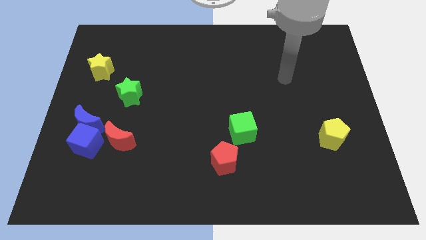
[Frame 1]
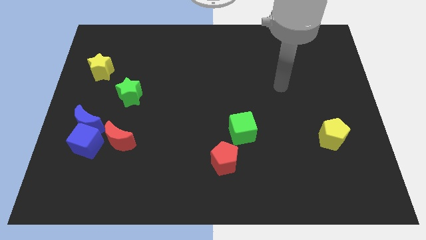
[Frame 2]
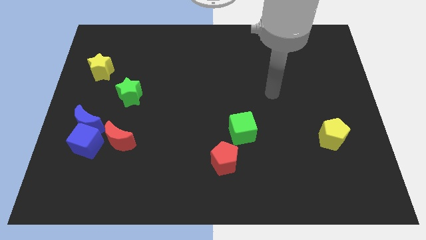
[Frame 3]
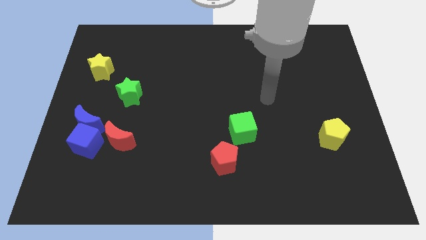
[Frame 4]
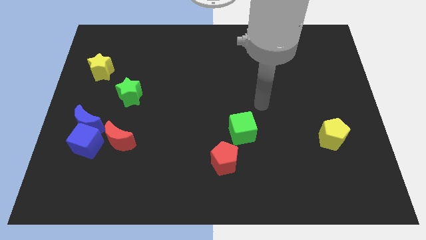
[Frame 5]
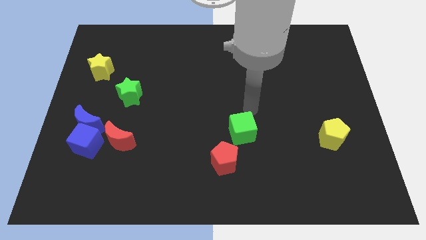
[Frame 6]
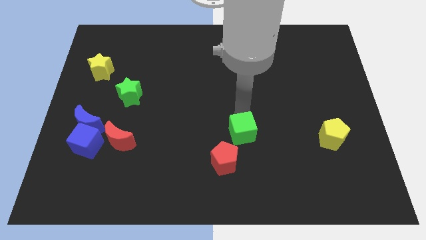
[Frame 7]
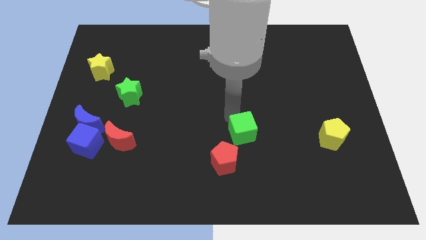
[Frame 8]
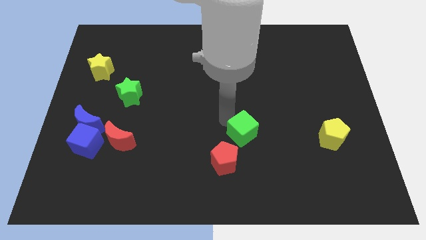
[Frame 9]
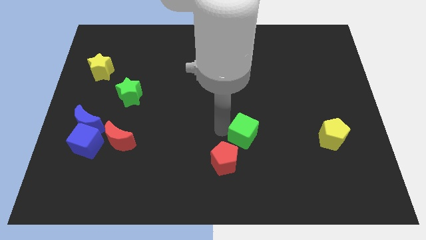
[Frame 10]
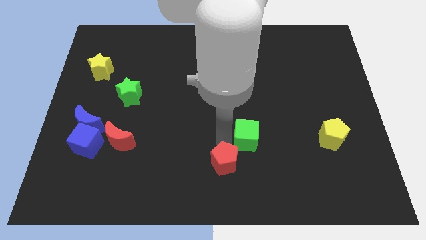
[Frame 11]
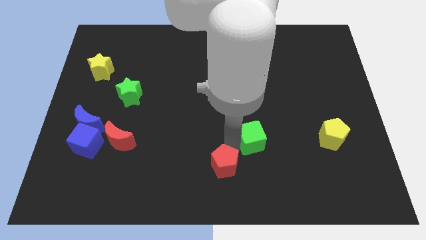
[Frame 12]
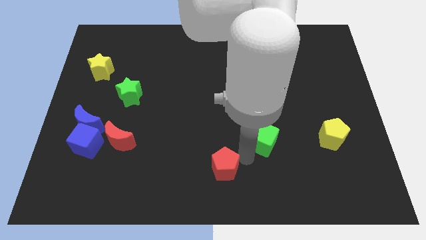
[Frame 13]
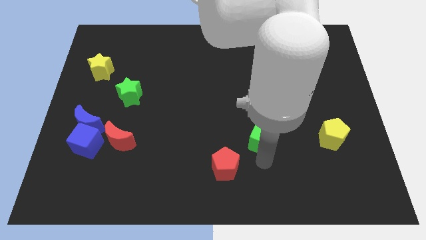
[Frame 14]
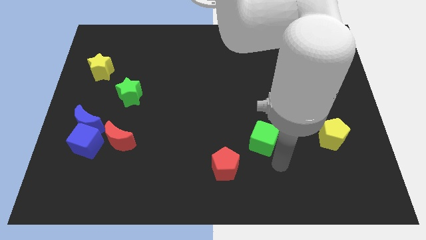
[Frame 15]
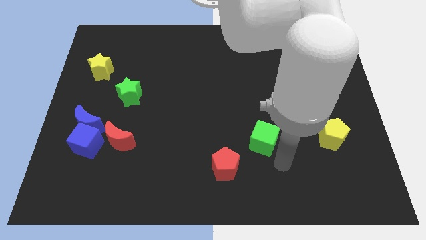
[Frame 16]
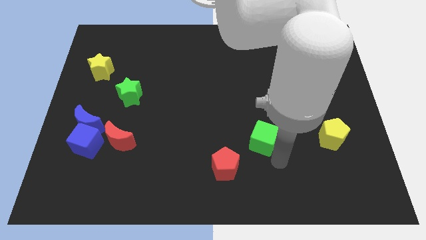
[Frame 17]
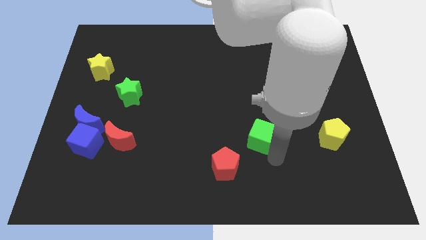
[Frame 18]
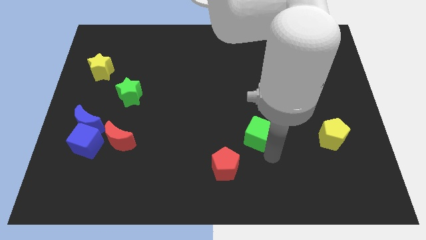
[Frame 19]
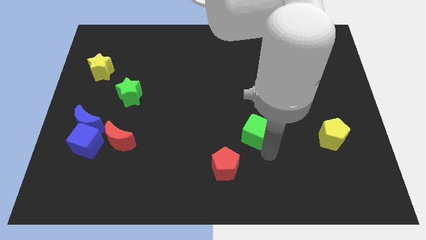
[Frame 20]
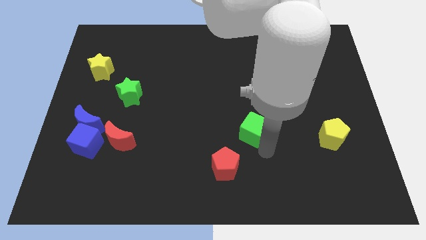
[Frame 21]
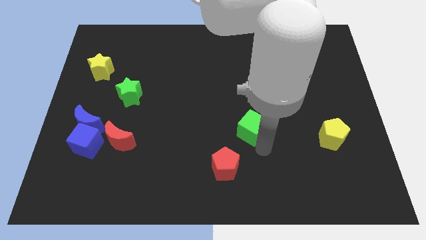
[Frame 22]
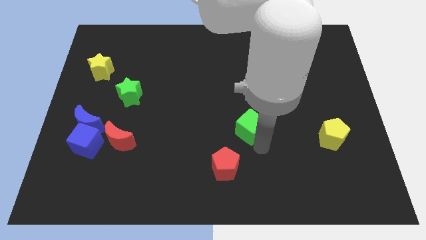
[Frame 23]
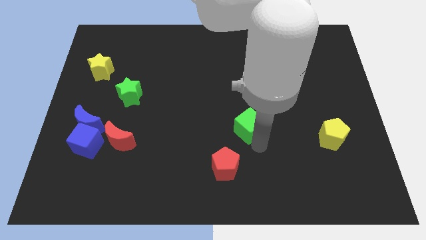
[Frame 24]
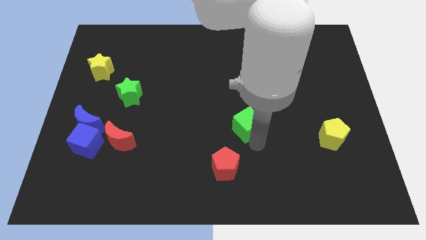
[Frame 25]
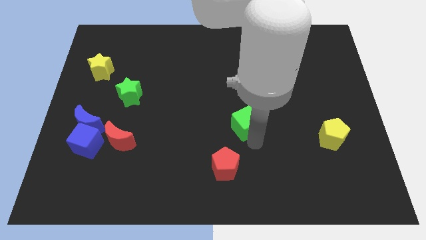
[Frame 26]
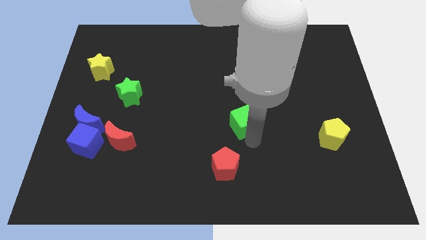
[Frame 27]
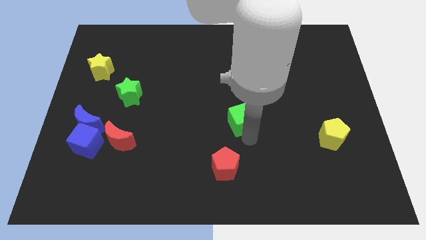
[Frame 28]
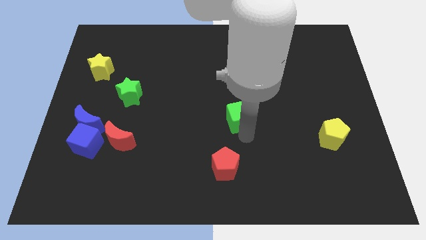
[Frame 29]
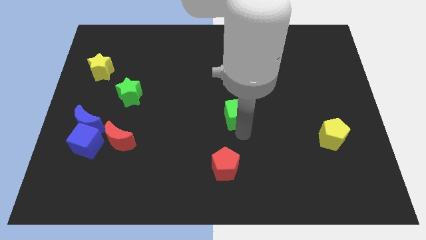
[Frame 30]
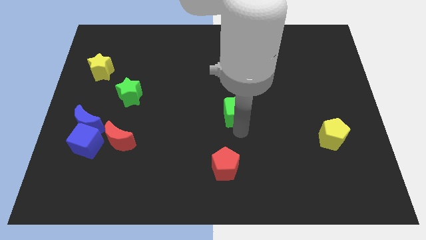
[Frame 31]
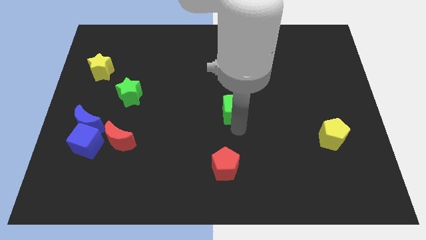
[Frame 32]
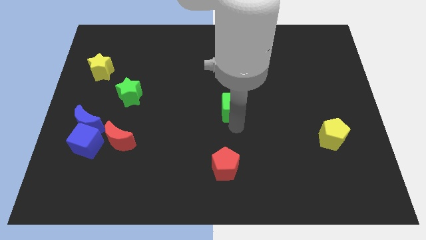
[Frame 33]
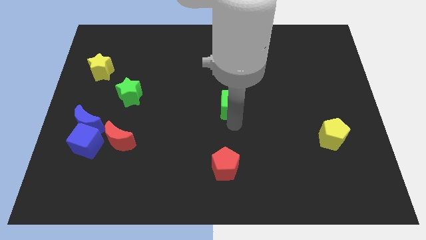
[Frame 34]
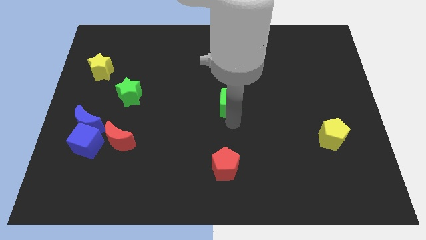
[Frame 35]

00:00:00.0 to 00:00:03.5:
slightly move the green cube upwards

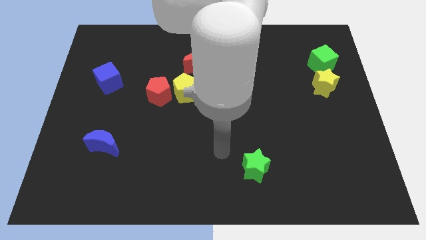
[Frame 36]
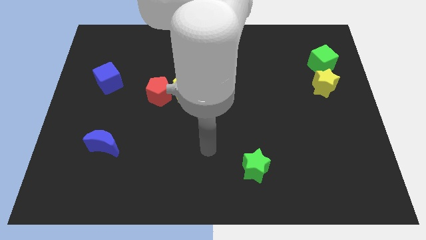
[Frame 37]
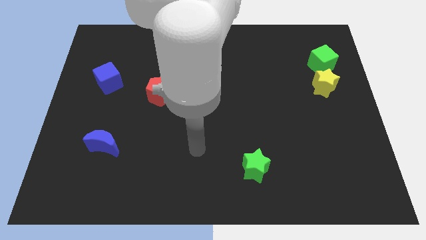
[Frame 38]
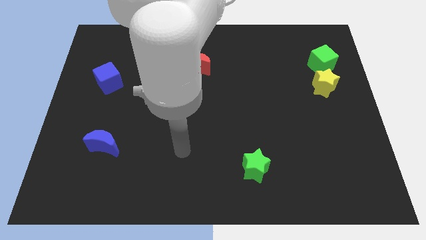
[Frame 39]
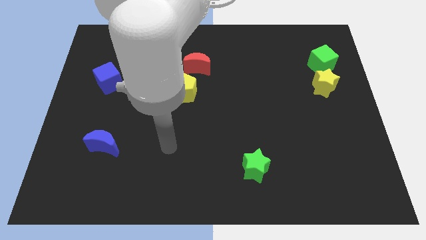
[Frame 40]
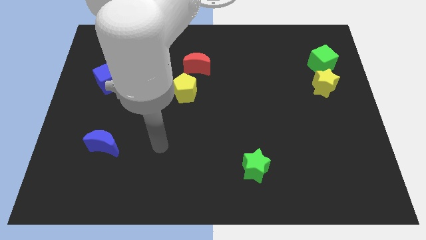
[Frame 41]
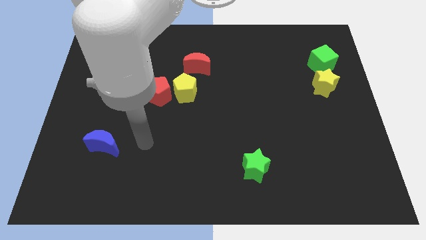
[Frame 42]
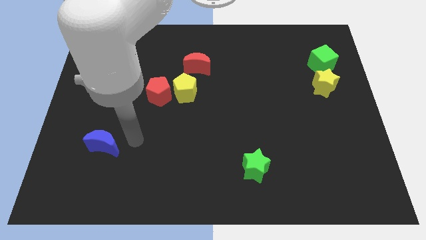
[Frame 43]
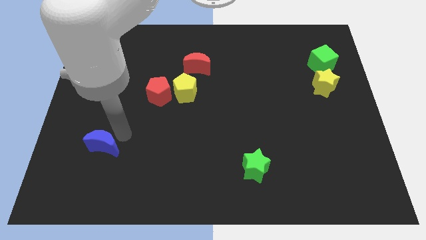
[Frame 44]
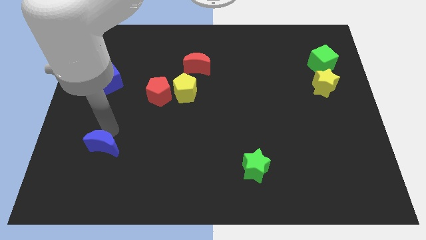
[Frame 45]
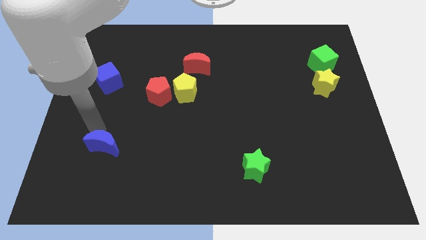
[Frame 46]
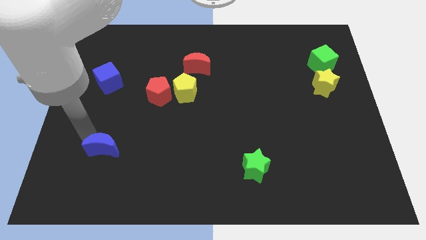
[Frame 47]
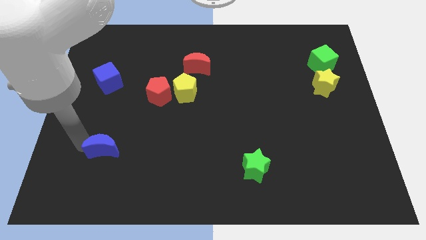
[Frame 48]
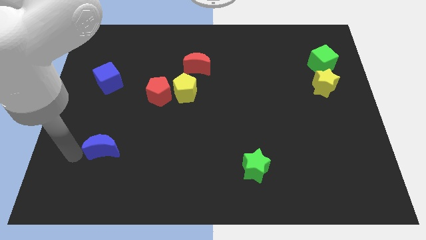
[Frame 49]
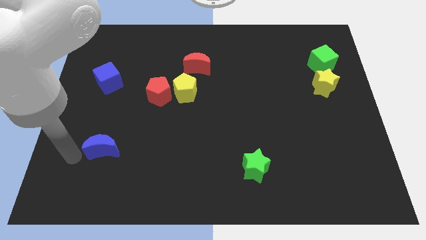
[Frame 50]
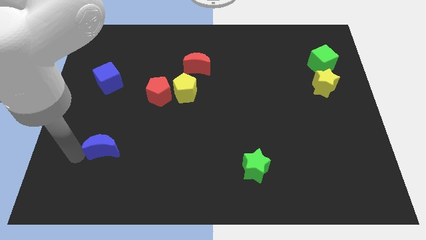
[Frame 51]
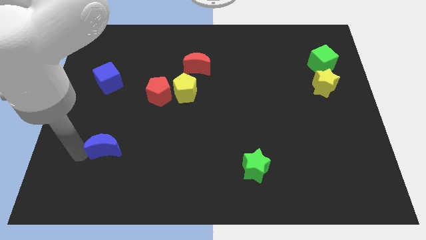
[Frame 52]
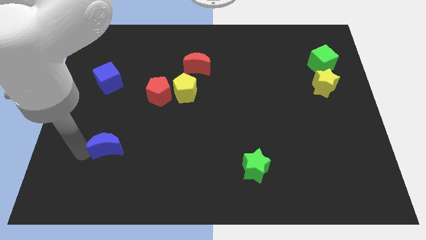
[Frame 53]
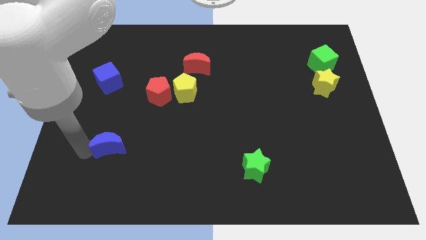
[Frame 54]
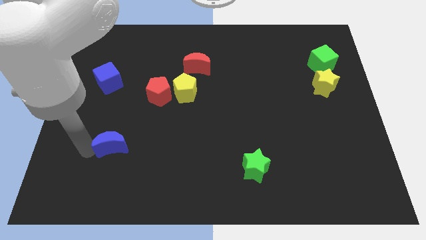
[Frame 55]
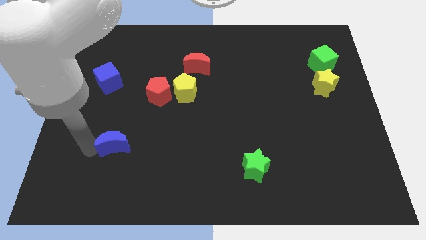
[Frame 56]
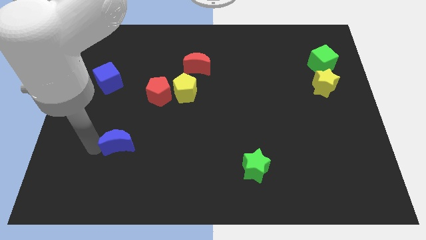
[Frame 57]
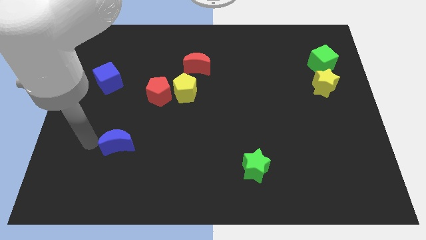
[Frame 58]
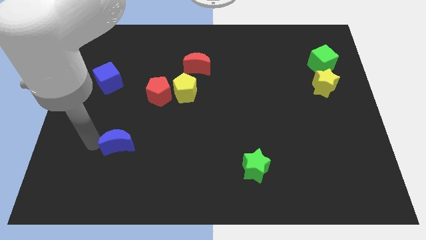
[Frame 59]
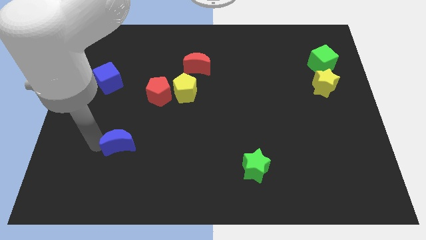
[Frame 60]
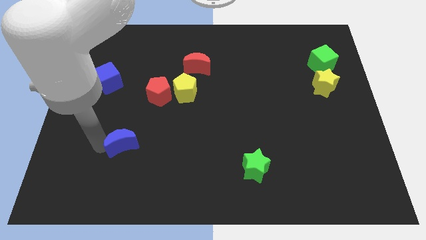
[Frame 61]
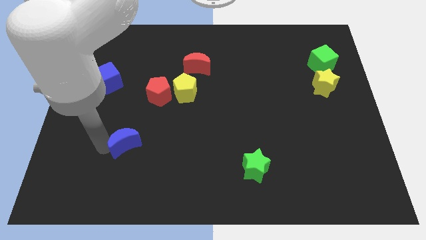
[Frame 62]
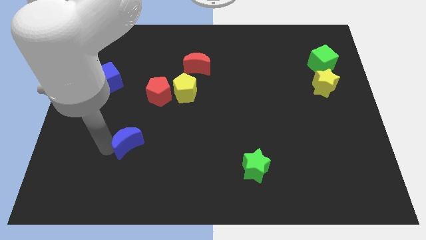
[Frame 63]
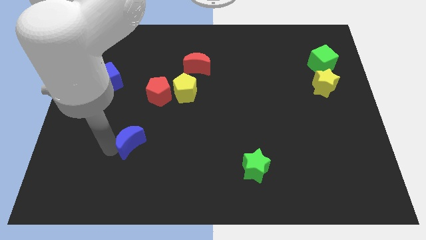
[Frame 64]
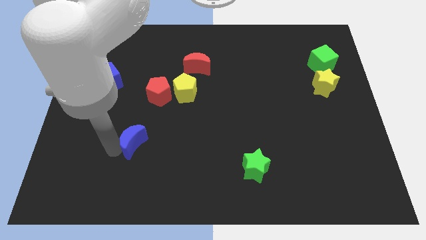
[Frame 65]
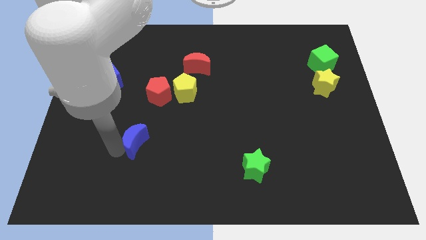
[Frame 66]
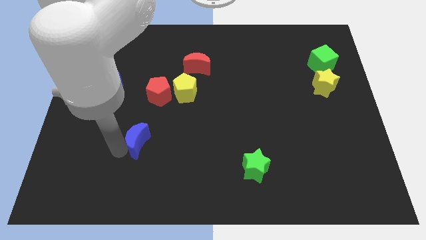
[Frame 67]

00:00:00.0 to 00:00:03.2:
slightly move the blue moon to the right

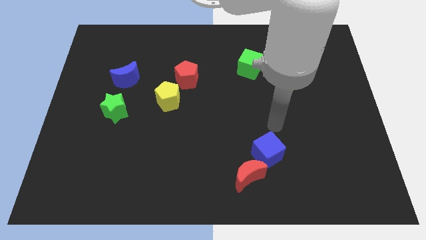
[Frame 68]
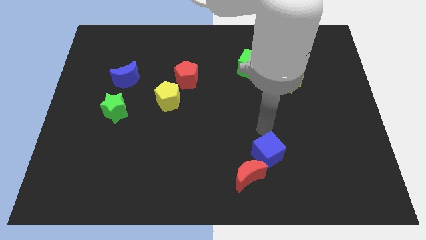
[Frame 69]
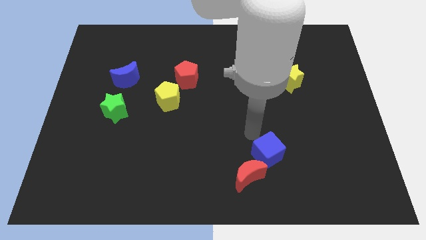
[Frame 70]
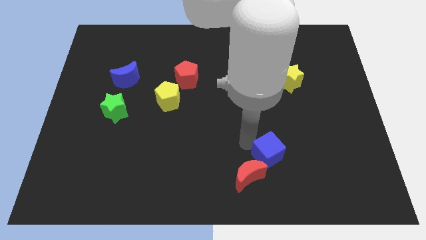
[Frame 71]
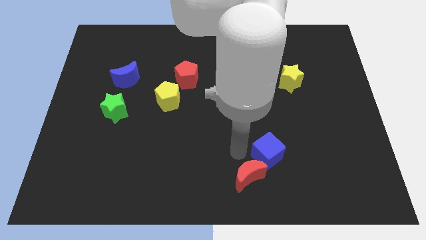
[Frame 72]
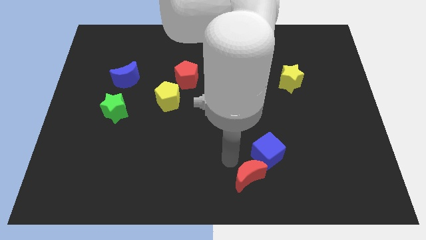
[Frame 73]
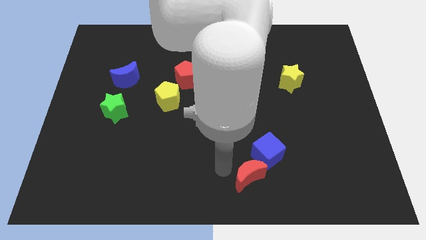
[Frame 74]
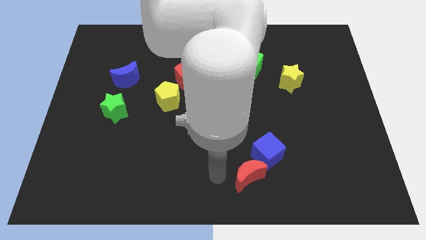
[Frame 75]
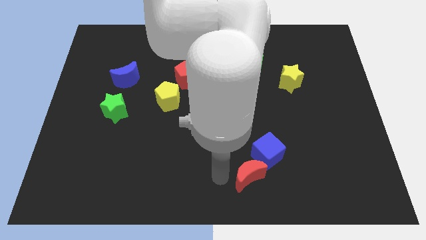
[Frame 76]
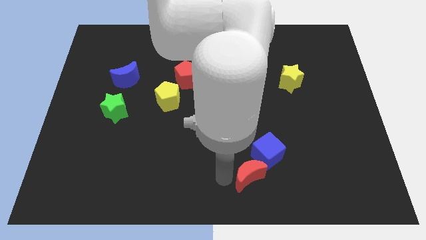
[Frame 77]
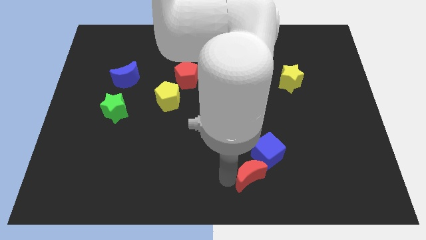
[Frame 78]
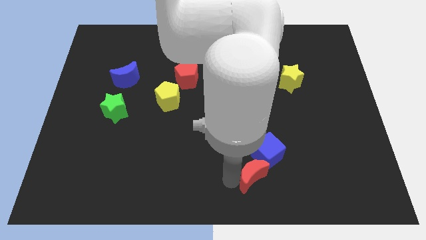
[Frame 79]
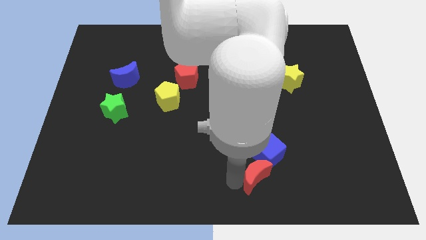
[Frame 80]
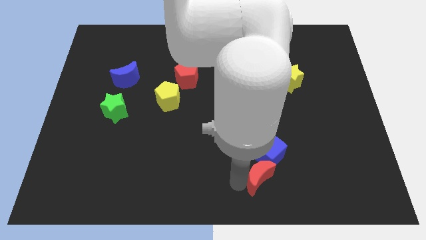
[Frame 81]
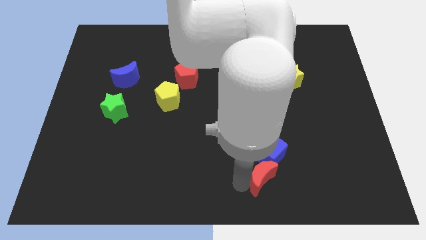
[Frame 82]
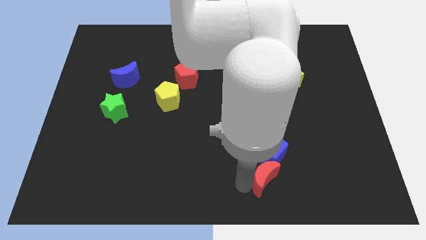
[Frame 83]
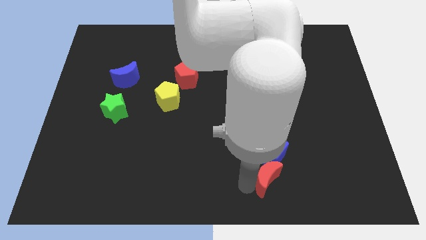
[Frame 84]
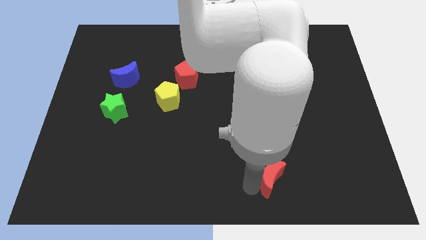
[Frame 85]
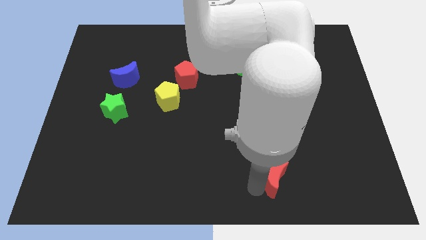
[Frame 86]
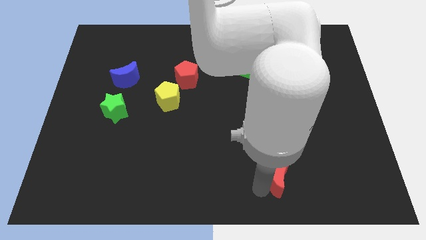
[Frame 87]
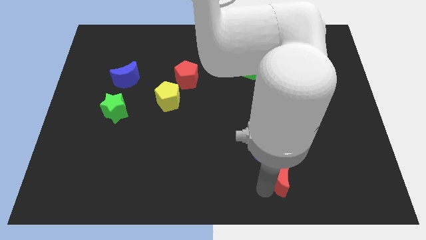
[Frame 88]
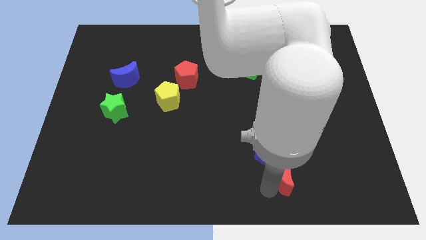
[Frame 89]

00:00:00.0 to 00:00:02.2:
move the red moon a little to the right
